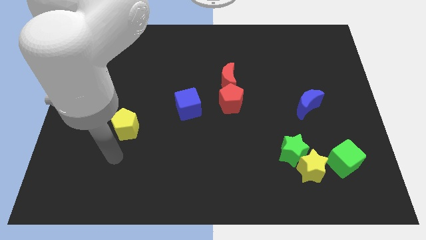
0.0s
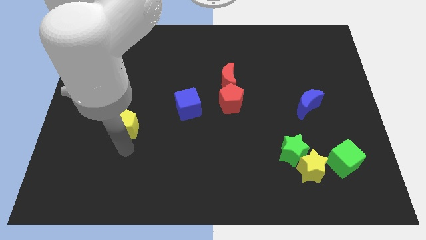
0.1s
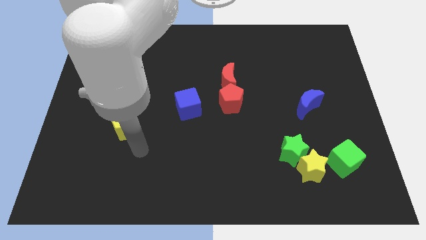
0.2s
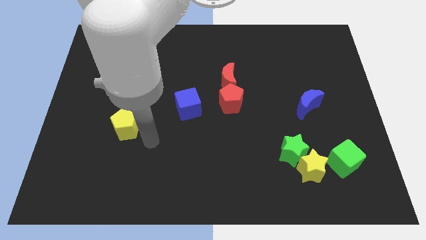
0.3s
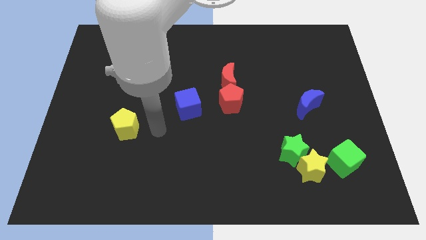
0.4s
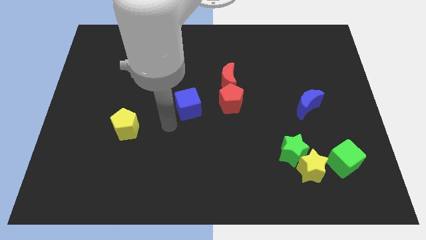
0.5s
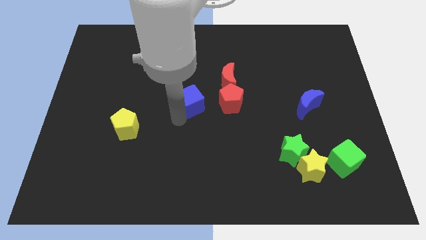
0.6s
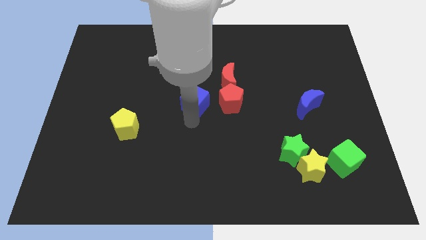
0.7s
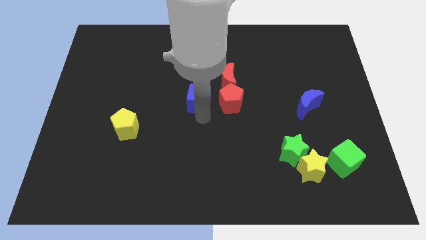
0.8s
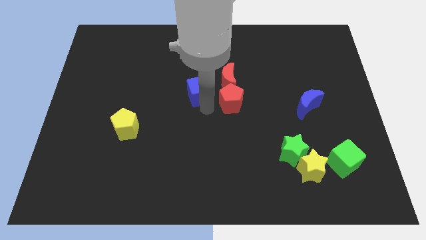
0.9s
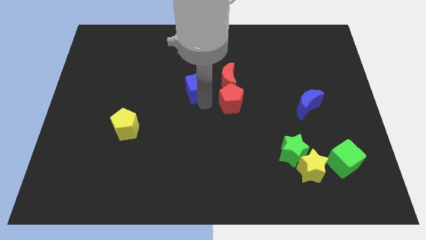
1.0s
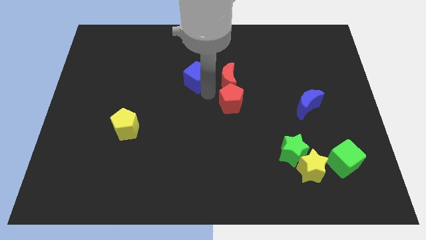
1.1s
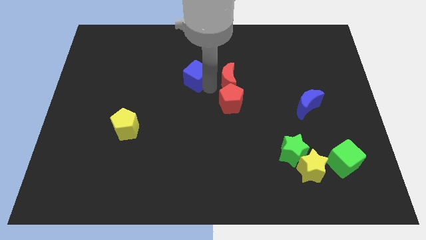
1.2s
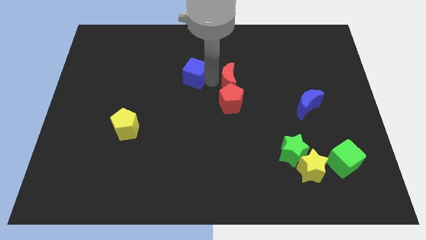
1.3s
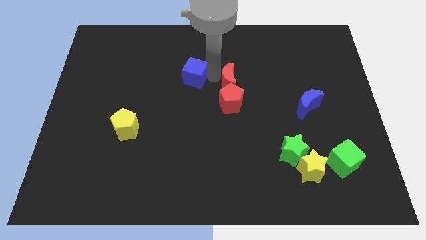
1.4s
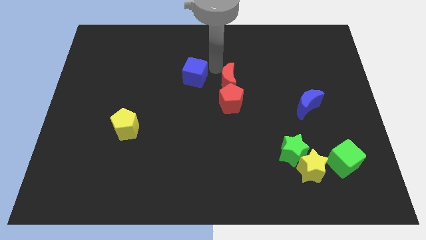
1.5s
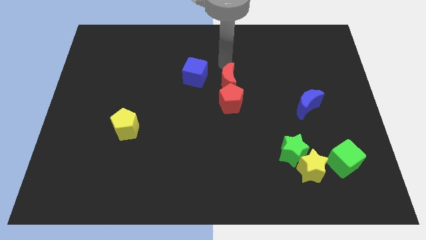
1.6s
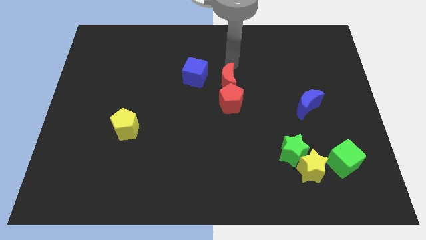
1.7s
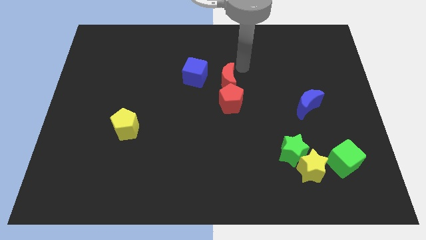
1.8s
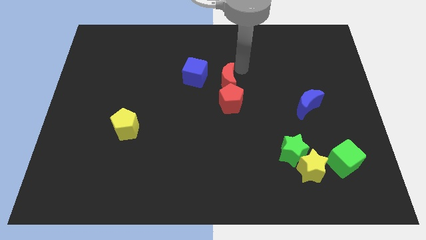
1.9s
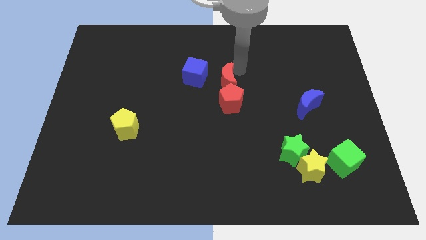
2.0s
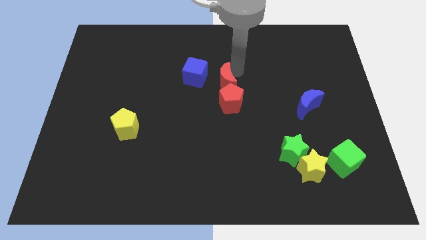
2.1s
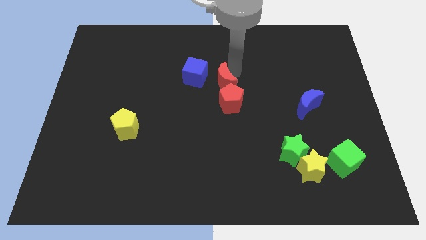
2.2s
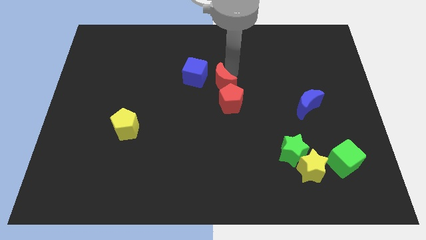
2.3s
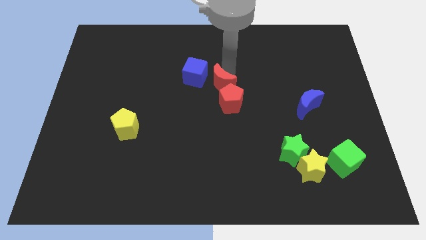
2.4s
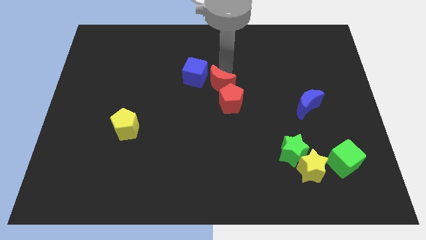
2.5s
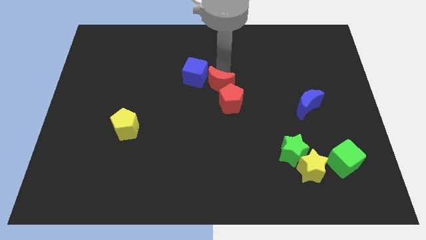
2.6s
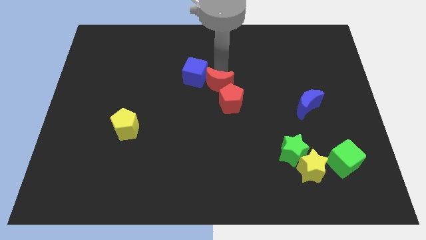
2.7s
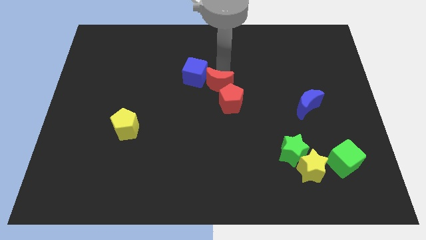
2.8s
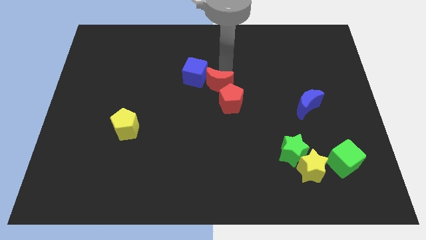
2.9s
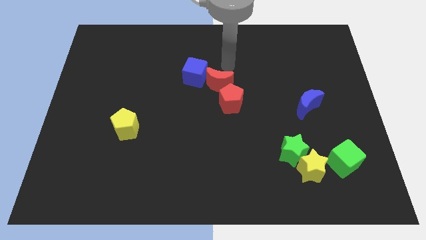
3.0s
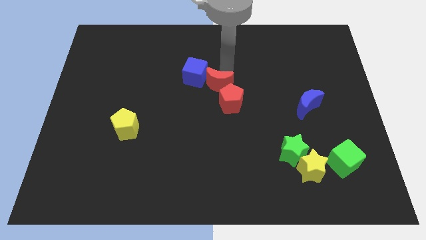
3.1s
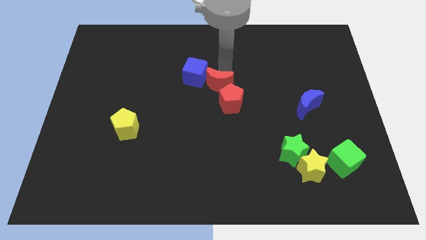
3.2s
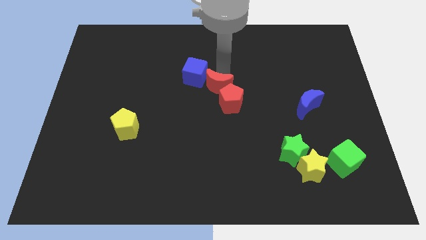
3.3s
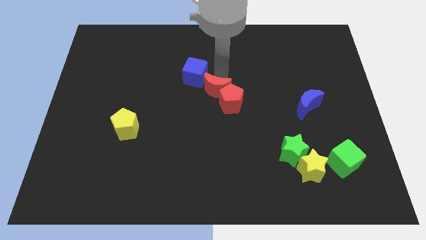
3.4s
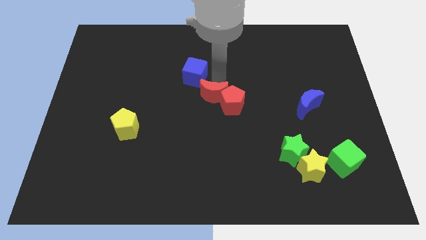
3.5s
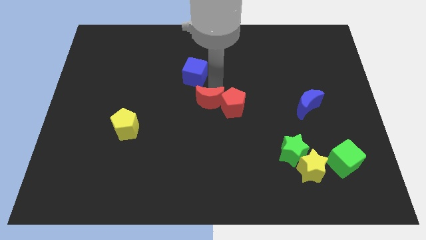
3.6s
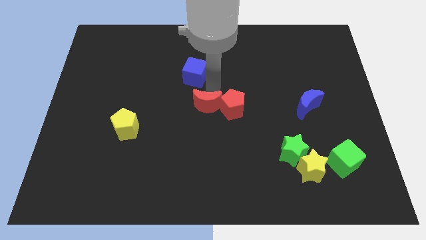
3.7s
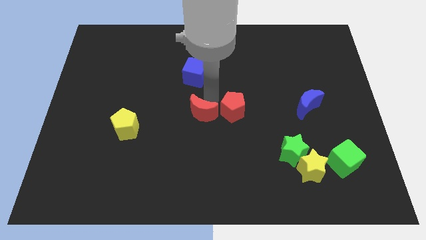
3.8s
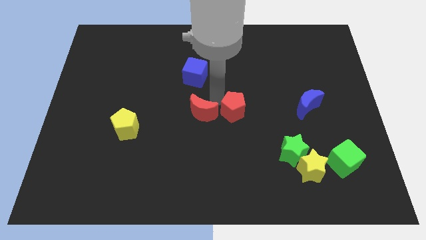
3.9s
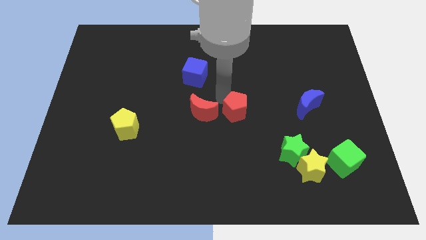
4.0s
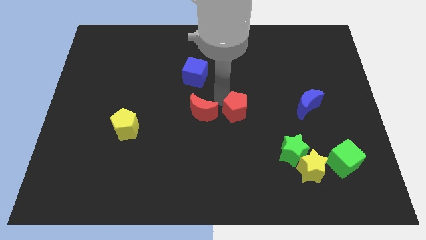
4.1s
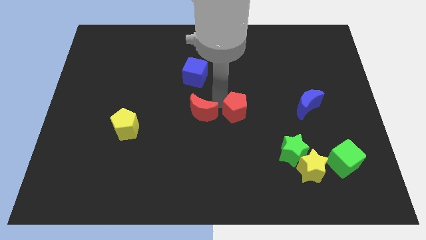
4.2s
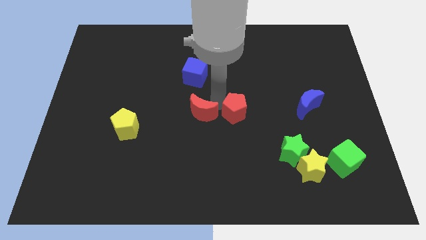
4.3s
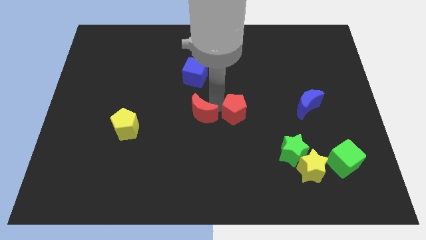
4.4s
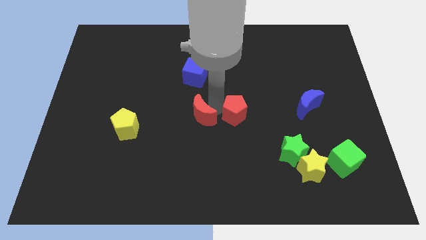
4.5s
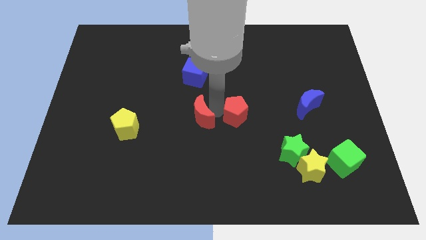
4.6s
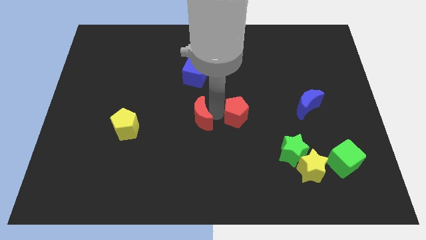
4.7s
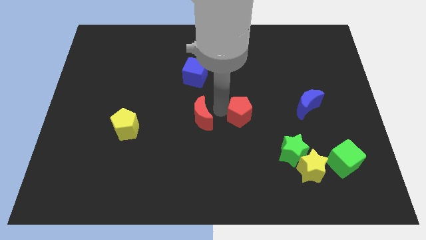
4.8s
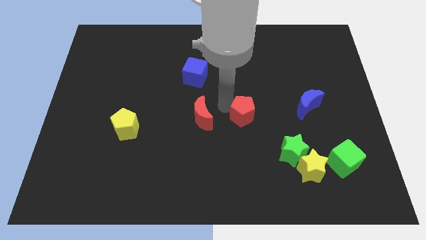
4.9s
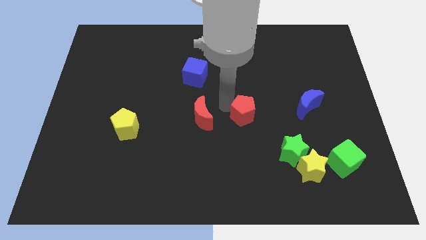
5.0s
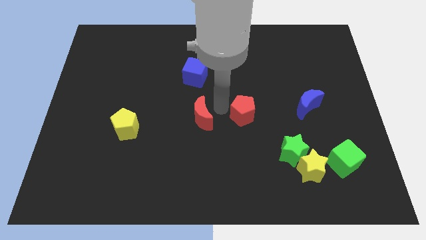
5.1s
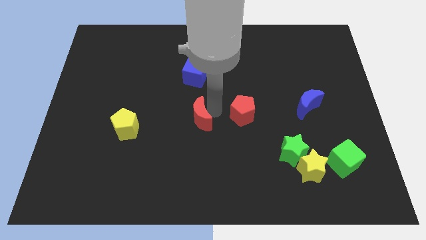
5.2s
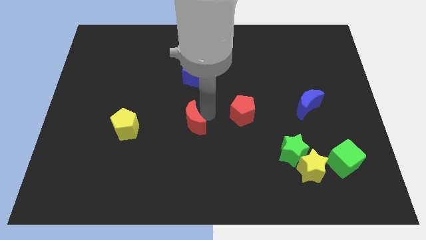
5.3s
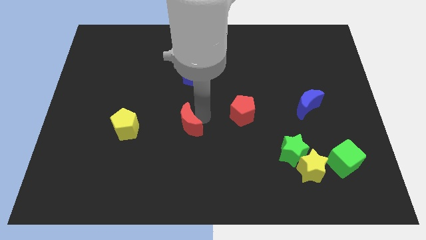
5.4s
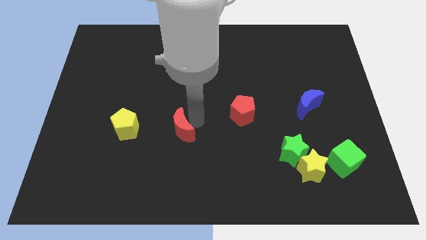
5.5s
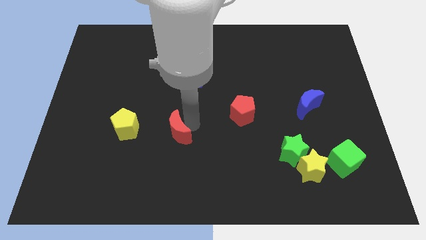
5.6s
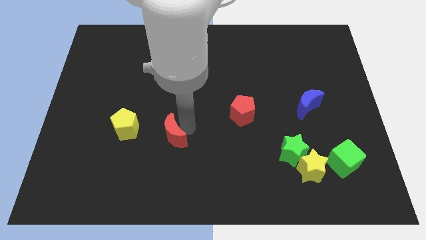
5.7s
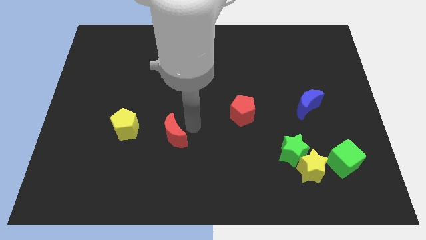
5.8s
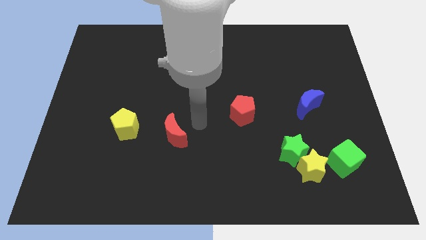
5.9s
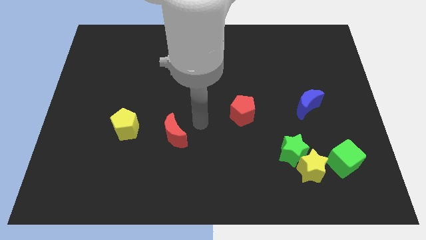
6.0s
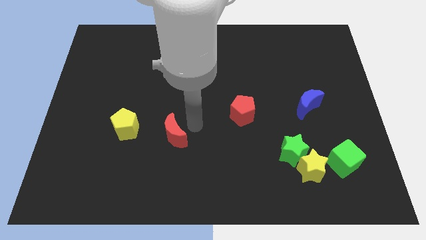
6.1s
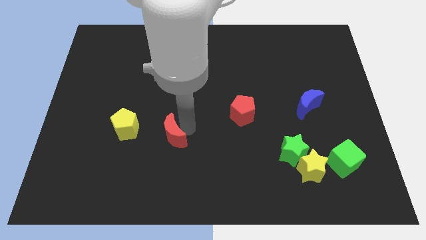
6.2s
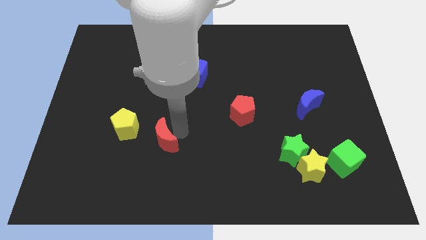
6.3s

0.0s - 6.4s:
slide the red moon to the bottom right side of the yellow pentagon

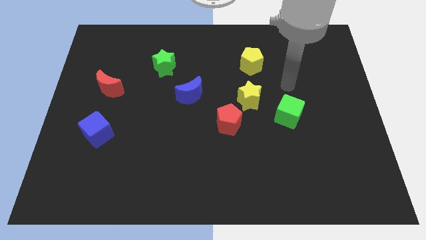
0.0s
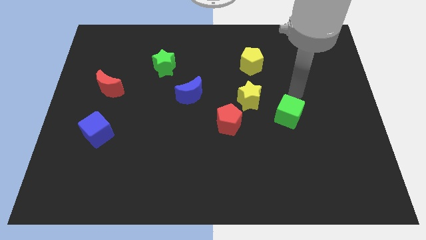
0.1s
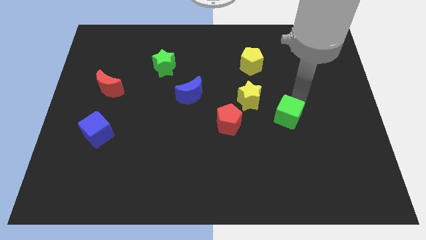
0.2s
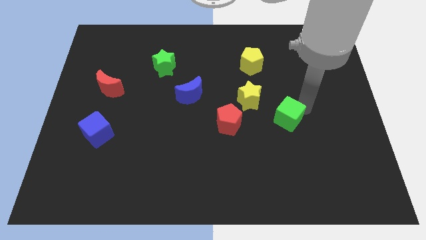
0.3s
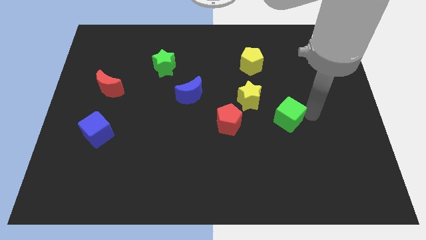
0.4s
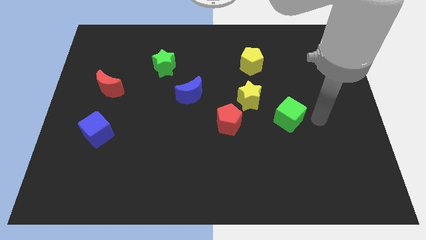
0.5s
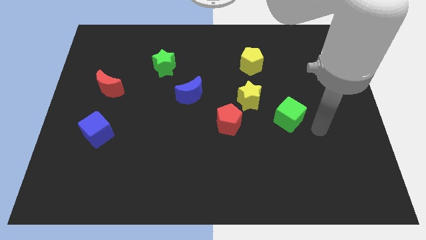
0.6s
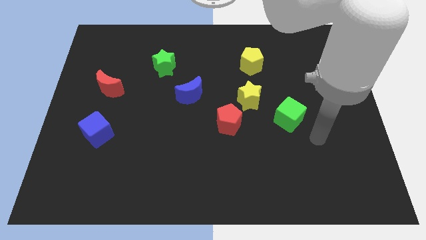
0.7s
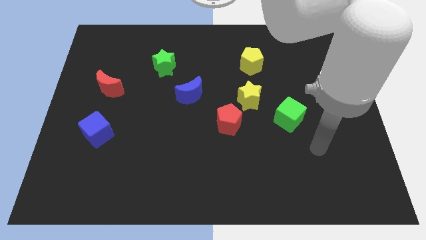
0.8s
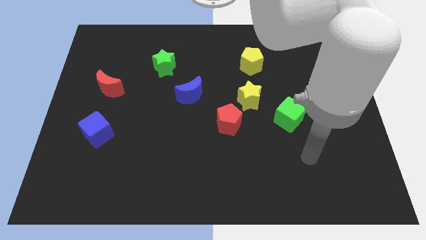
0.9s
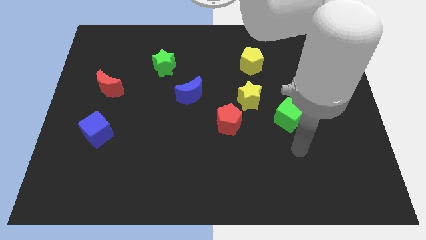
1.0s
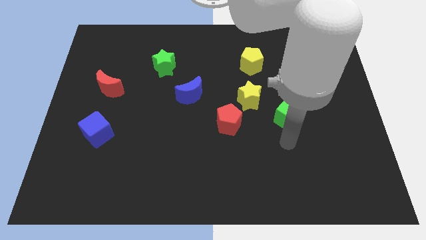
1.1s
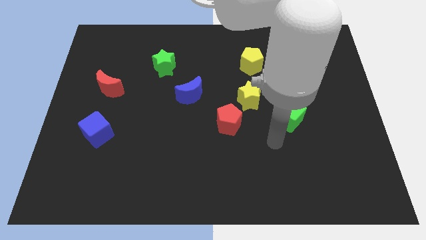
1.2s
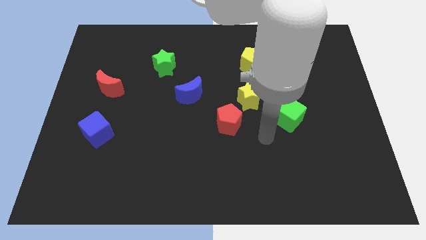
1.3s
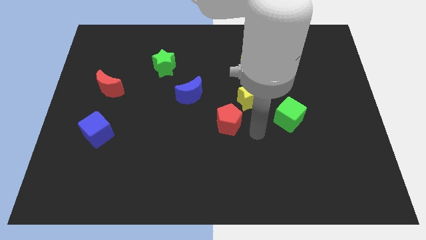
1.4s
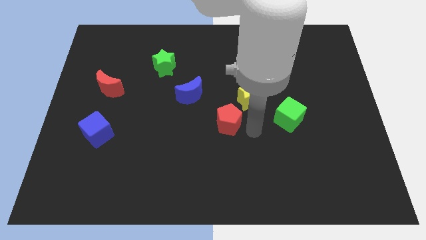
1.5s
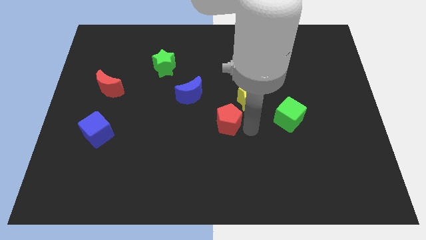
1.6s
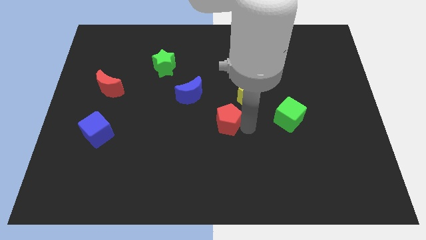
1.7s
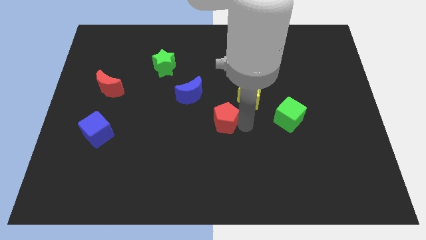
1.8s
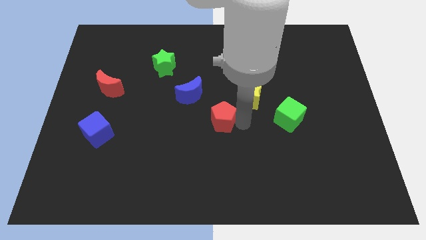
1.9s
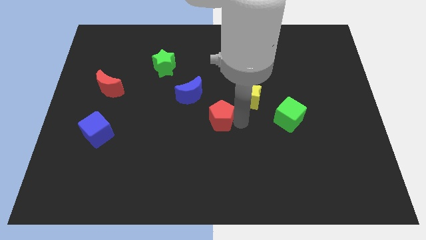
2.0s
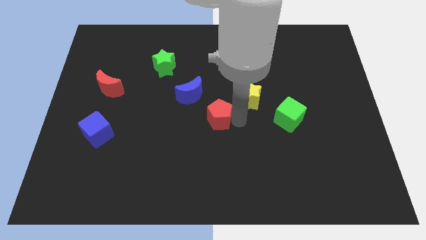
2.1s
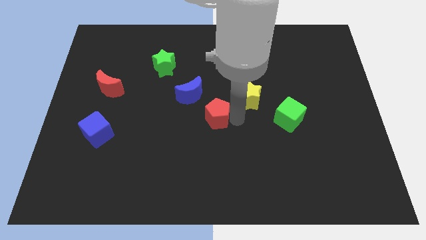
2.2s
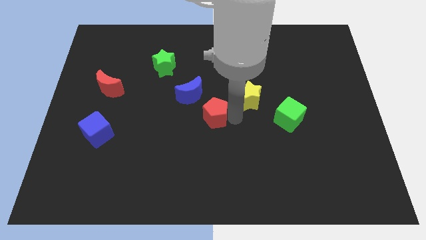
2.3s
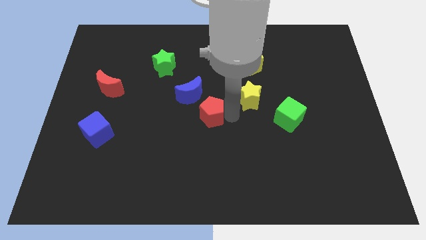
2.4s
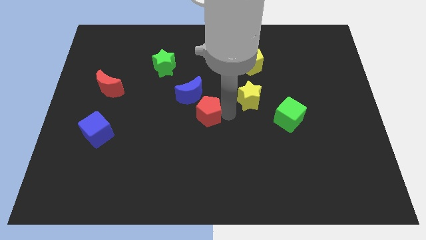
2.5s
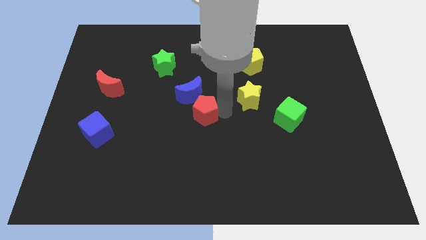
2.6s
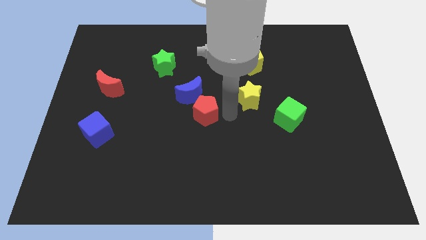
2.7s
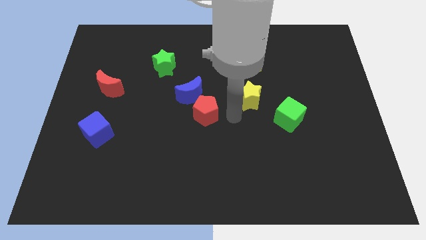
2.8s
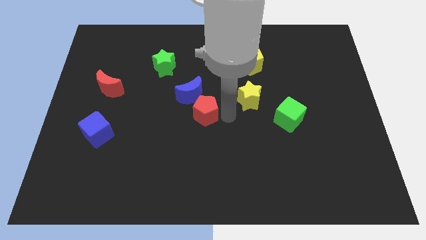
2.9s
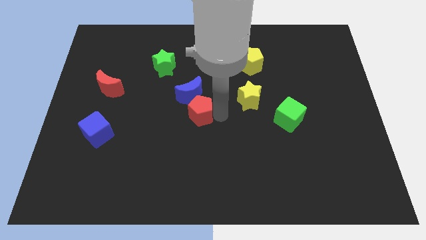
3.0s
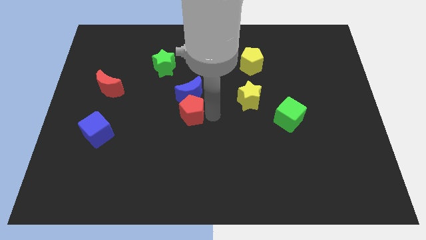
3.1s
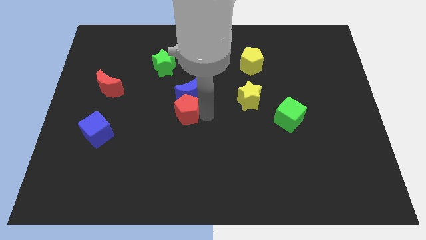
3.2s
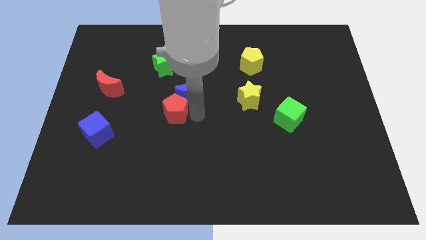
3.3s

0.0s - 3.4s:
put the red pentagon below the green star
